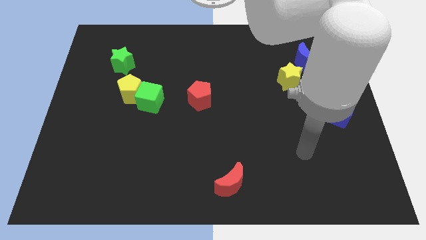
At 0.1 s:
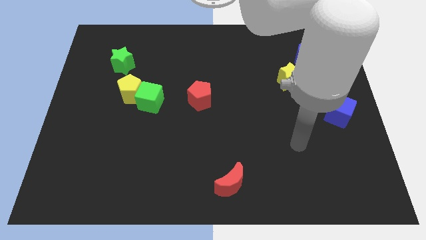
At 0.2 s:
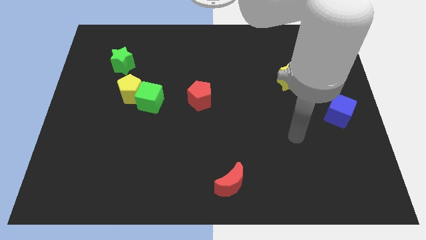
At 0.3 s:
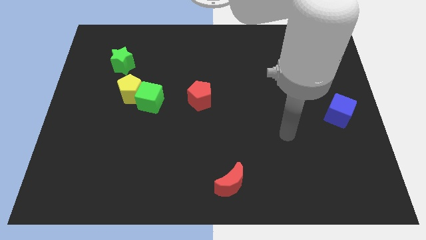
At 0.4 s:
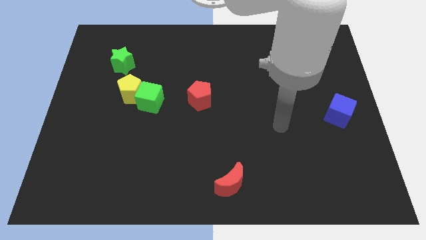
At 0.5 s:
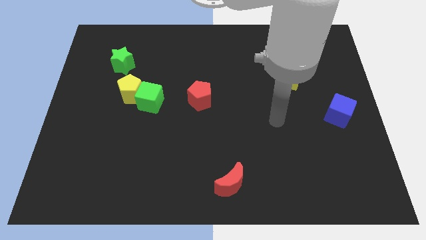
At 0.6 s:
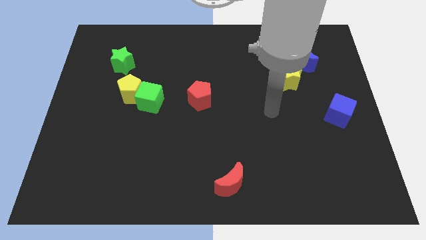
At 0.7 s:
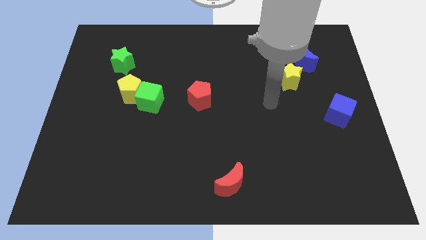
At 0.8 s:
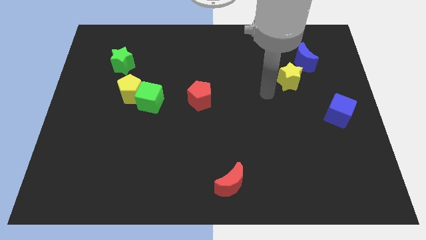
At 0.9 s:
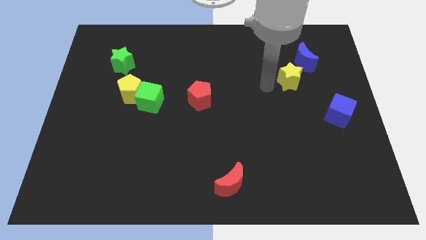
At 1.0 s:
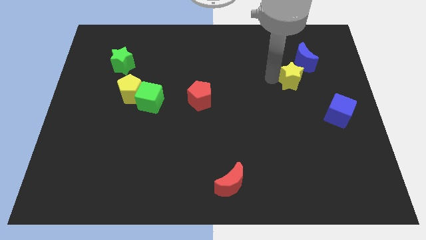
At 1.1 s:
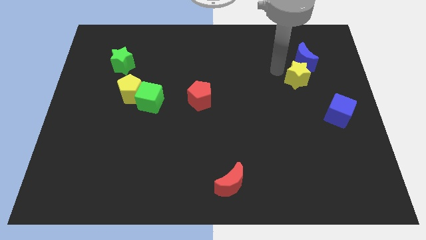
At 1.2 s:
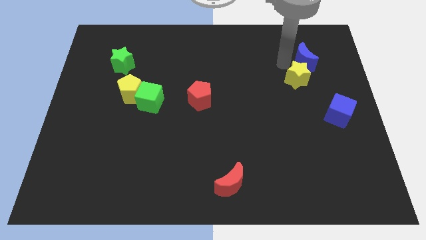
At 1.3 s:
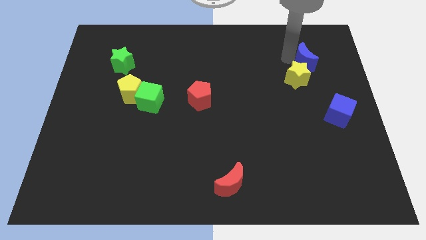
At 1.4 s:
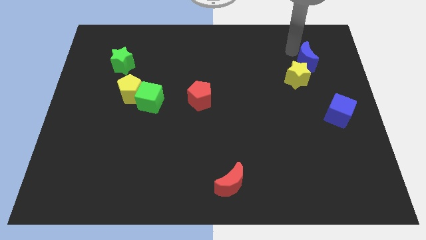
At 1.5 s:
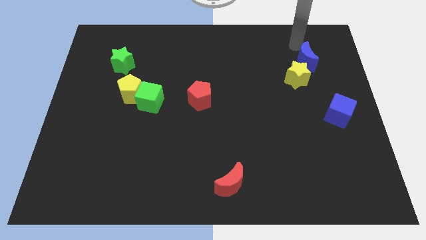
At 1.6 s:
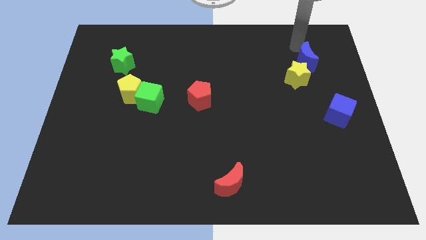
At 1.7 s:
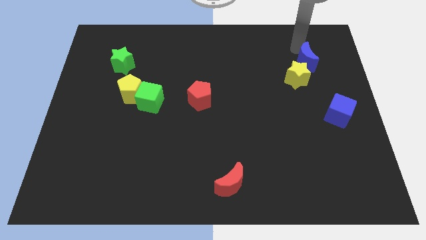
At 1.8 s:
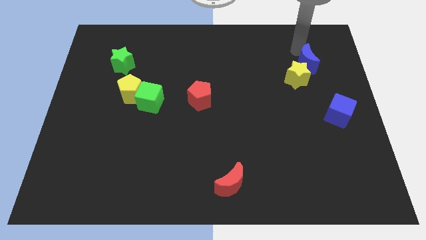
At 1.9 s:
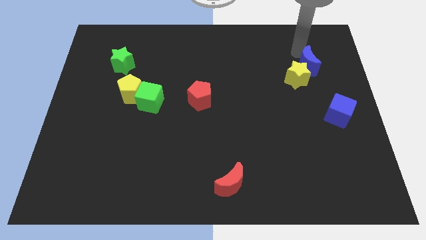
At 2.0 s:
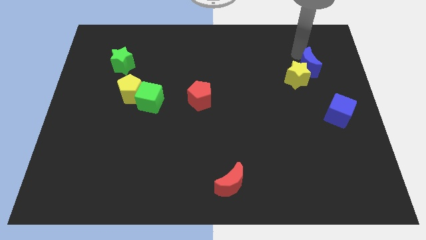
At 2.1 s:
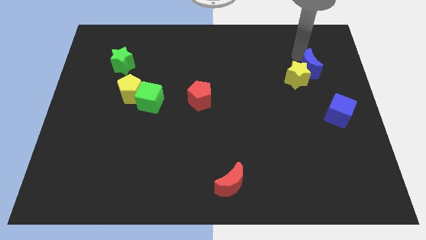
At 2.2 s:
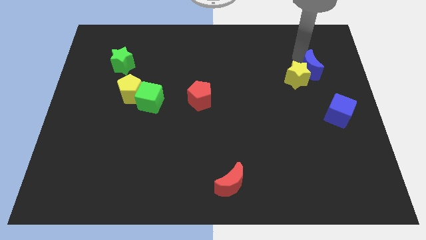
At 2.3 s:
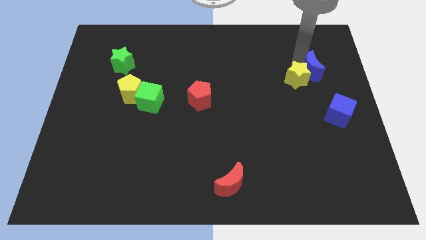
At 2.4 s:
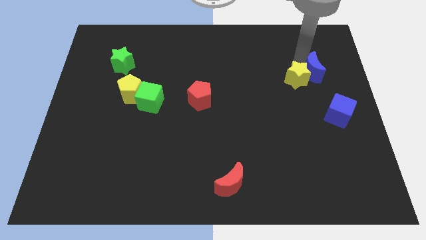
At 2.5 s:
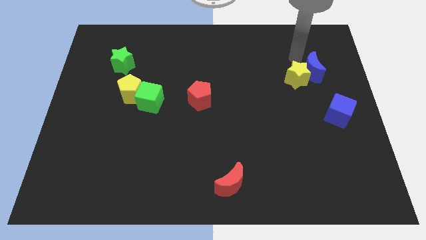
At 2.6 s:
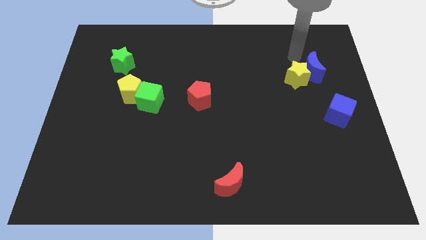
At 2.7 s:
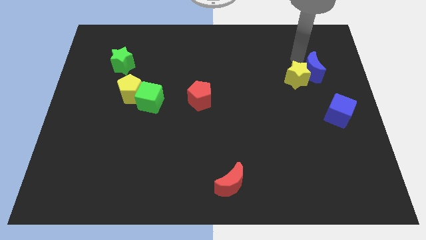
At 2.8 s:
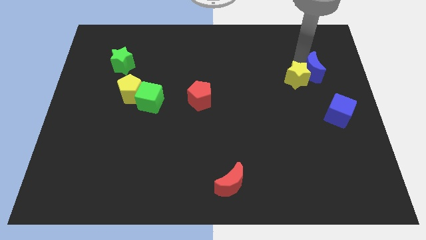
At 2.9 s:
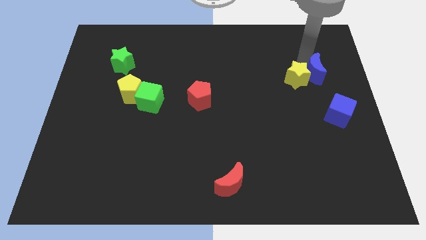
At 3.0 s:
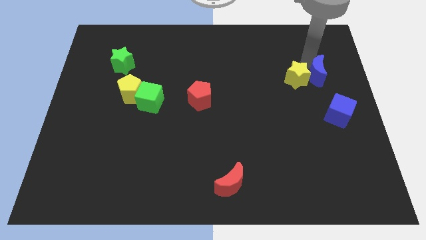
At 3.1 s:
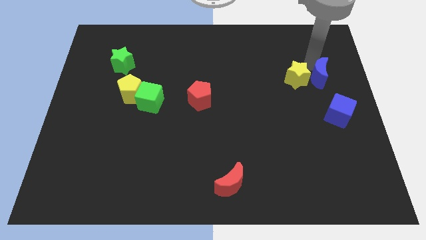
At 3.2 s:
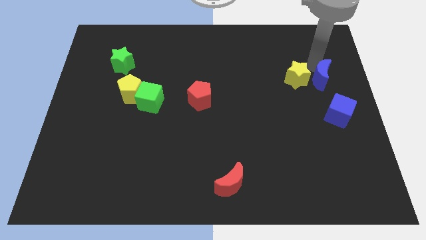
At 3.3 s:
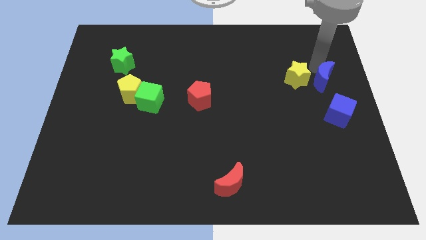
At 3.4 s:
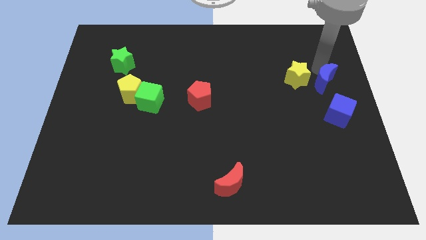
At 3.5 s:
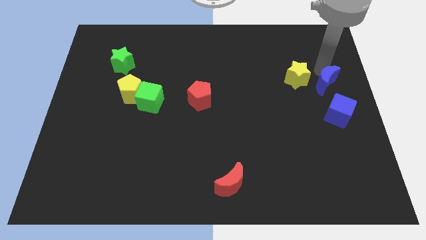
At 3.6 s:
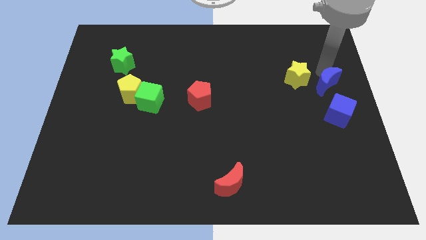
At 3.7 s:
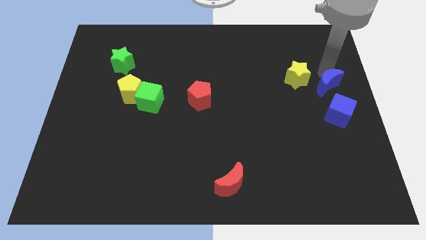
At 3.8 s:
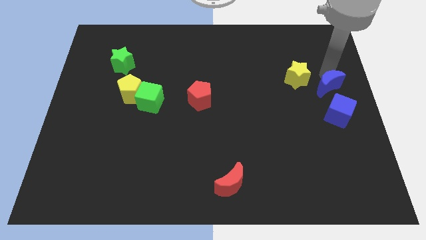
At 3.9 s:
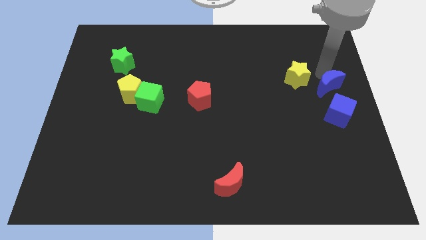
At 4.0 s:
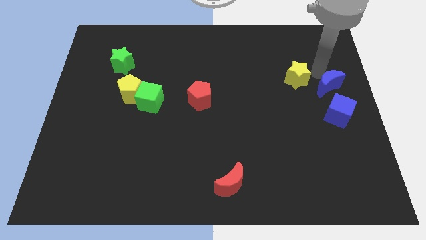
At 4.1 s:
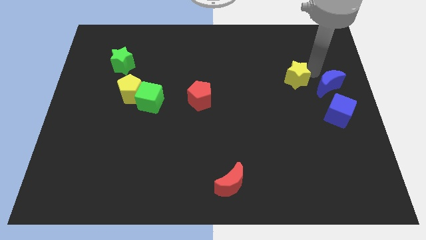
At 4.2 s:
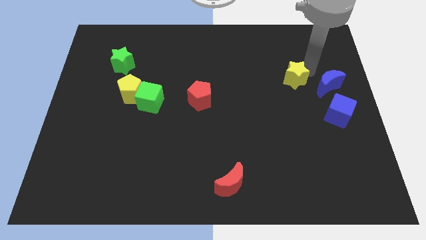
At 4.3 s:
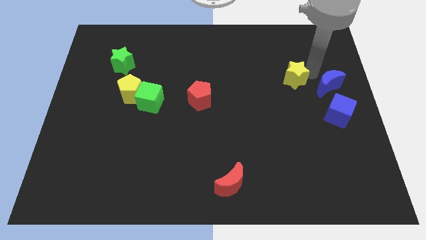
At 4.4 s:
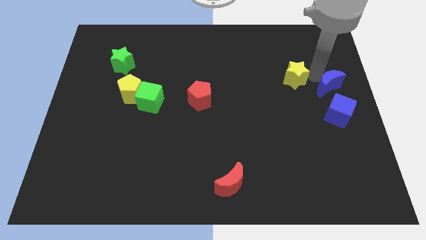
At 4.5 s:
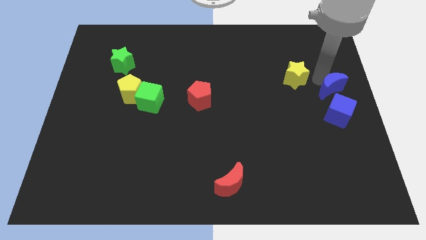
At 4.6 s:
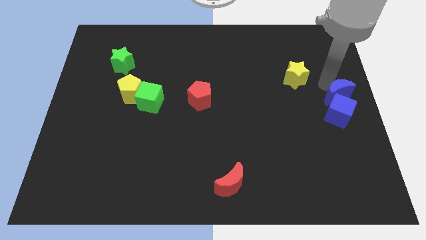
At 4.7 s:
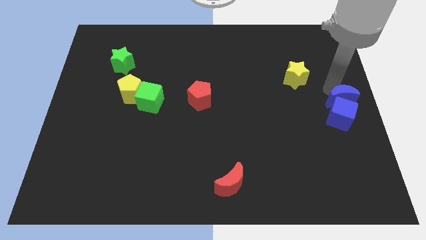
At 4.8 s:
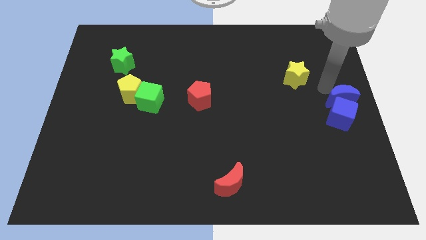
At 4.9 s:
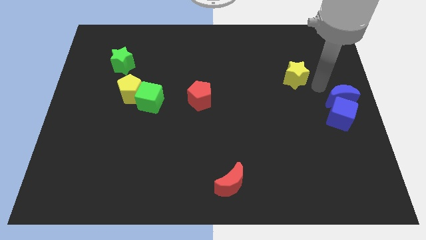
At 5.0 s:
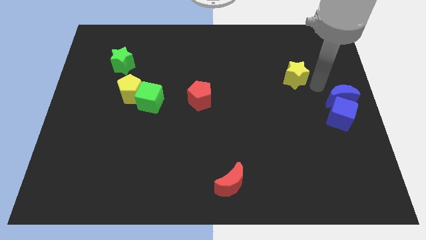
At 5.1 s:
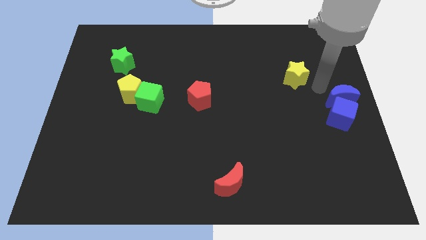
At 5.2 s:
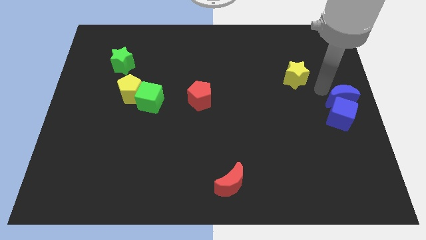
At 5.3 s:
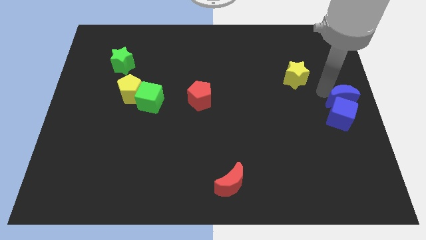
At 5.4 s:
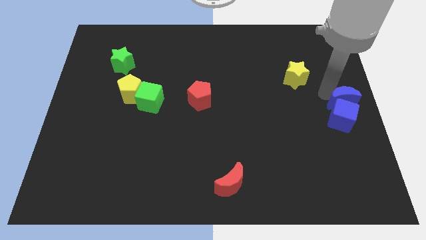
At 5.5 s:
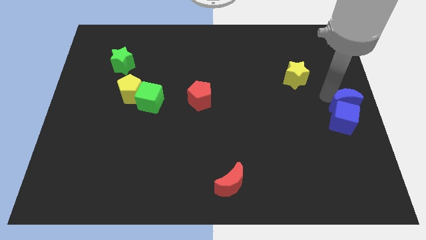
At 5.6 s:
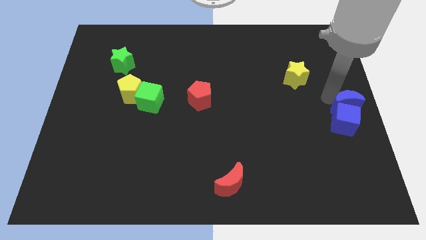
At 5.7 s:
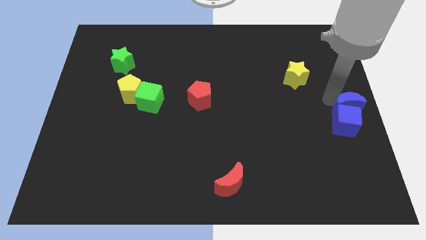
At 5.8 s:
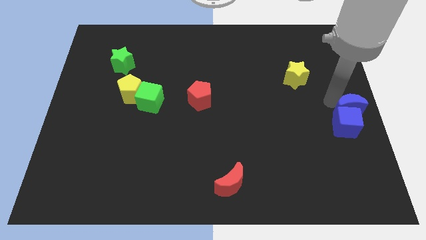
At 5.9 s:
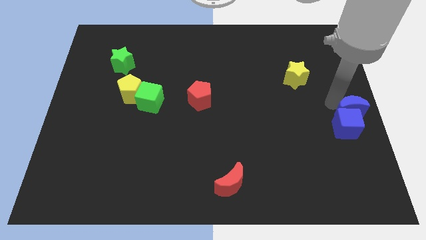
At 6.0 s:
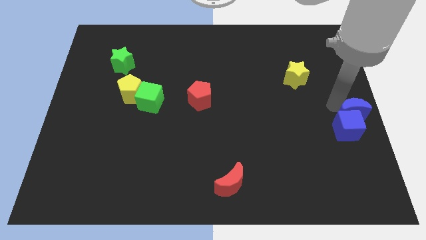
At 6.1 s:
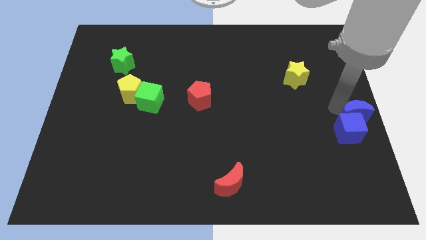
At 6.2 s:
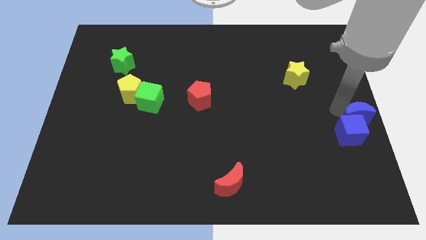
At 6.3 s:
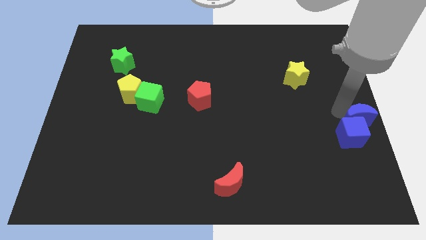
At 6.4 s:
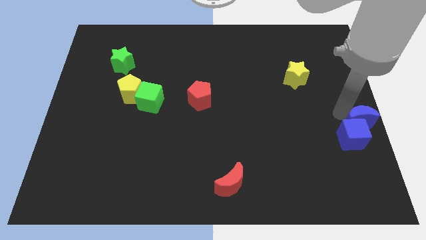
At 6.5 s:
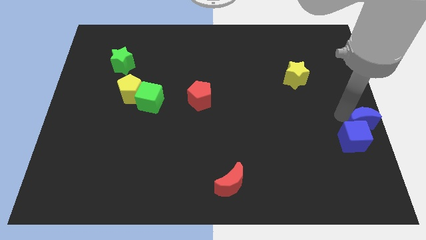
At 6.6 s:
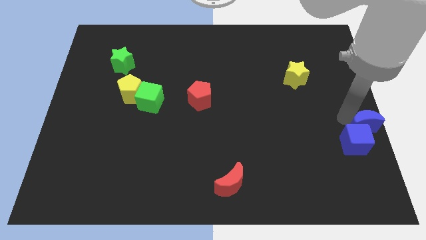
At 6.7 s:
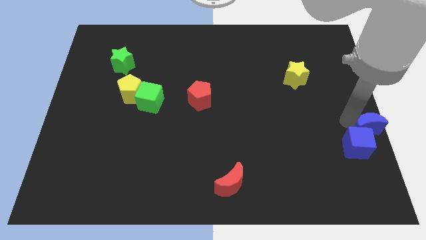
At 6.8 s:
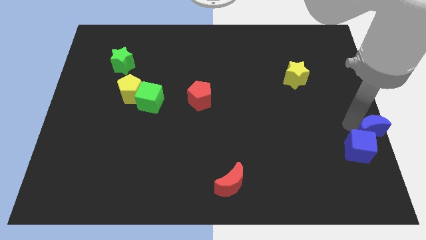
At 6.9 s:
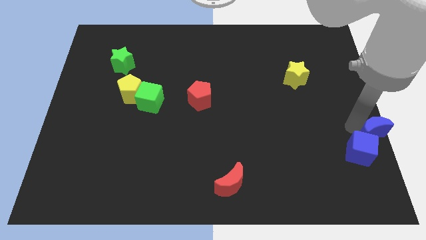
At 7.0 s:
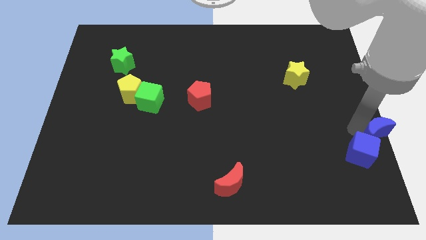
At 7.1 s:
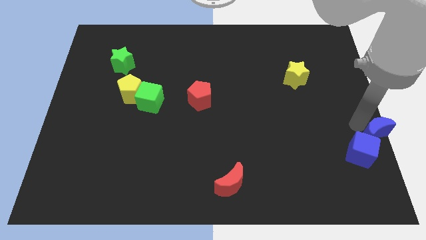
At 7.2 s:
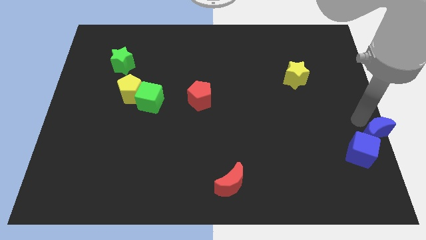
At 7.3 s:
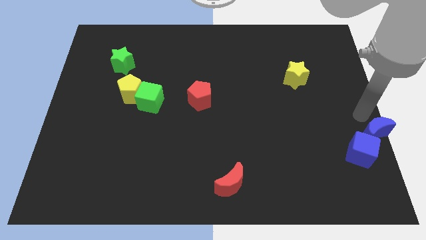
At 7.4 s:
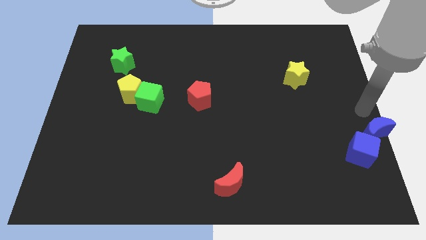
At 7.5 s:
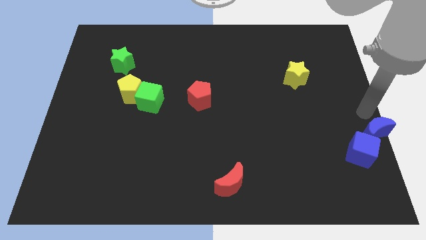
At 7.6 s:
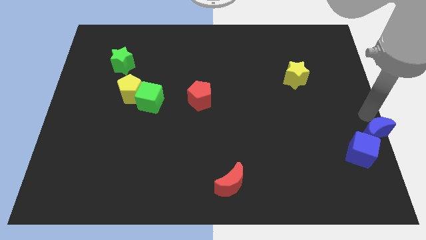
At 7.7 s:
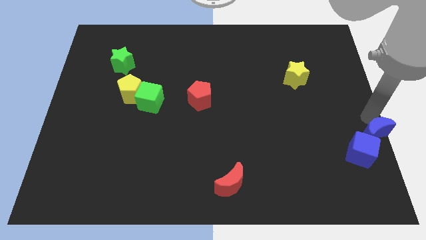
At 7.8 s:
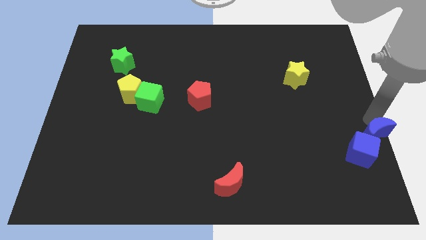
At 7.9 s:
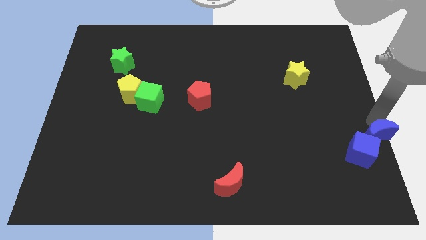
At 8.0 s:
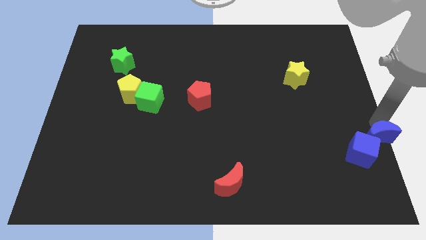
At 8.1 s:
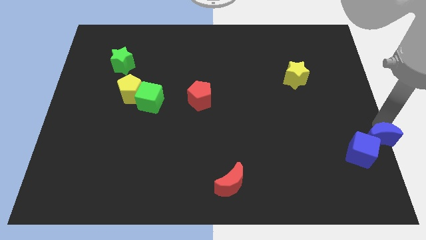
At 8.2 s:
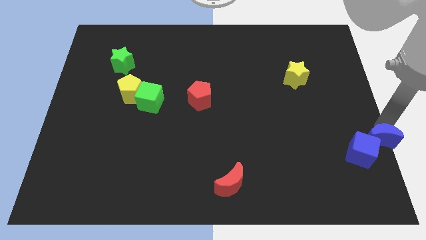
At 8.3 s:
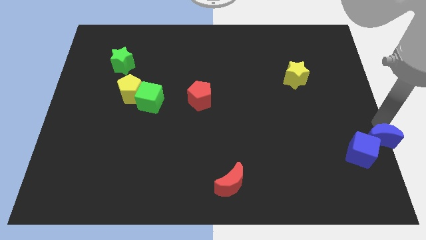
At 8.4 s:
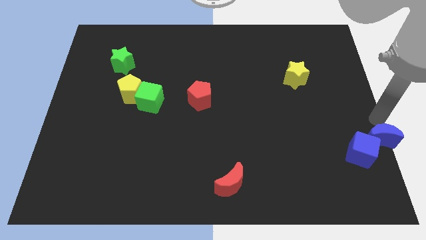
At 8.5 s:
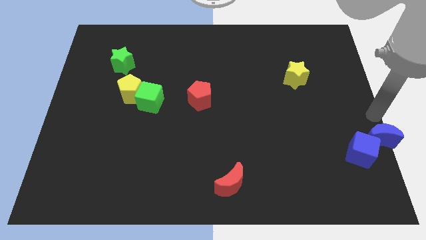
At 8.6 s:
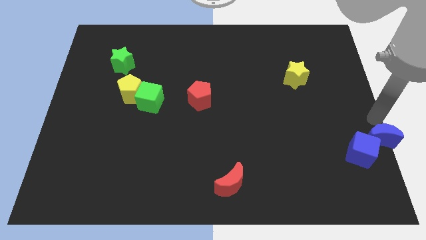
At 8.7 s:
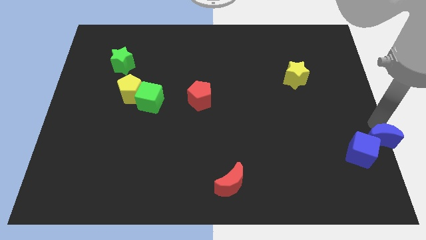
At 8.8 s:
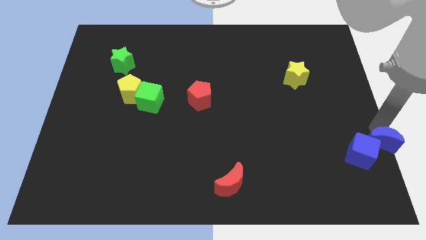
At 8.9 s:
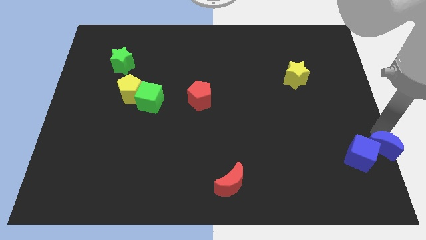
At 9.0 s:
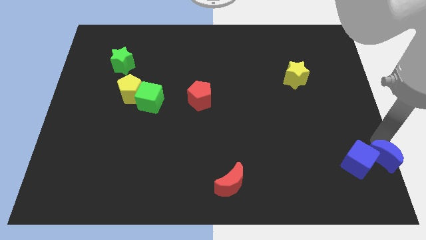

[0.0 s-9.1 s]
push the blue moon to the lower right corner
